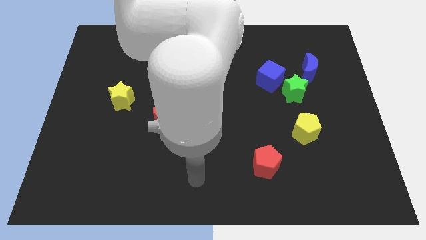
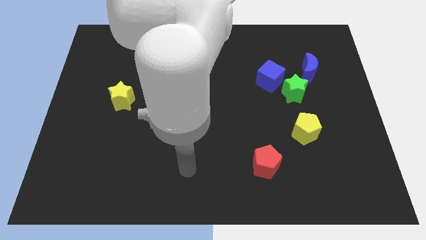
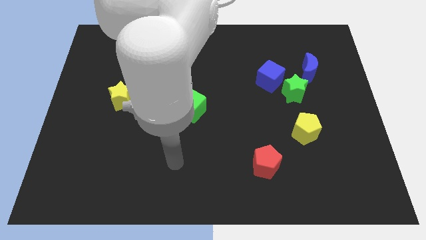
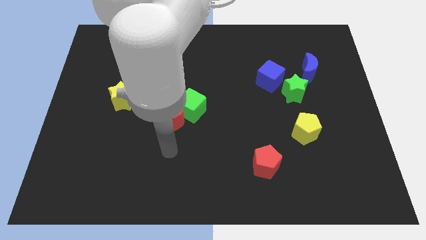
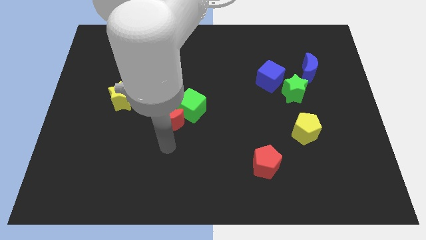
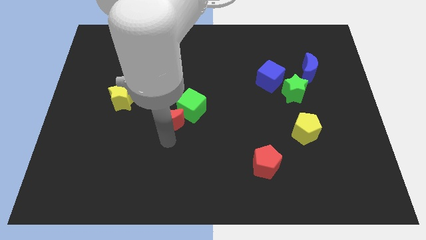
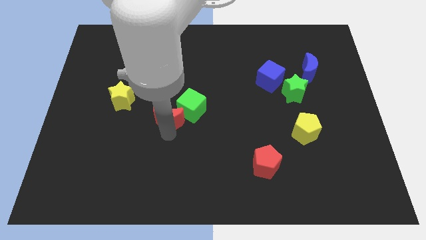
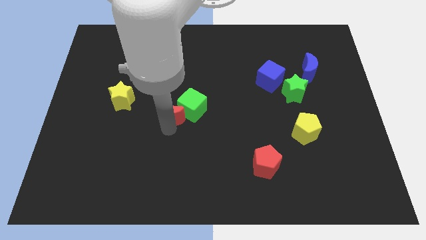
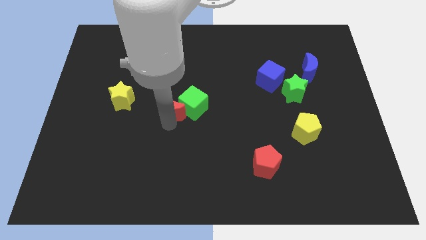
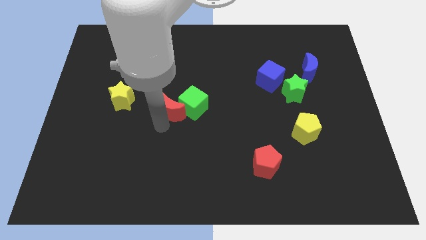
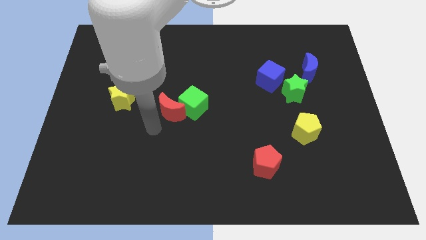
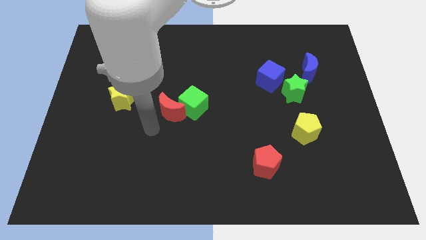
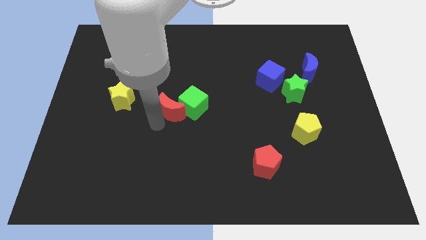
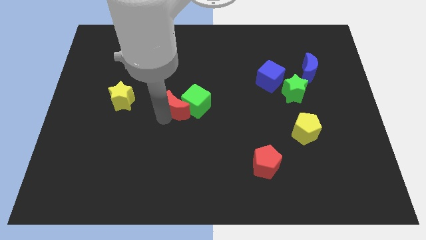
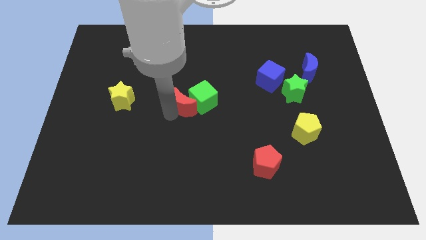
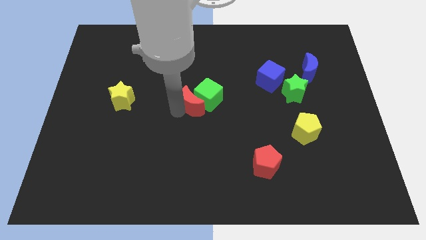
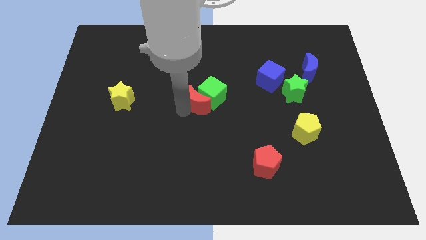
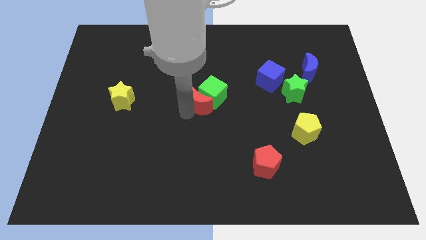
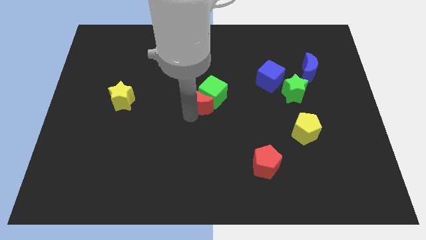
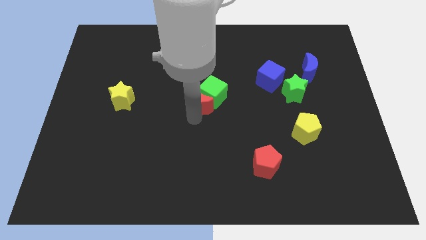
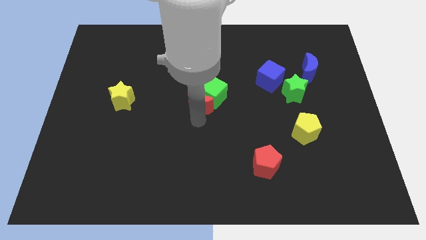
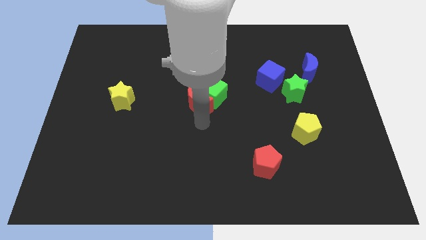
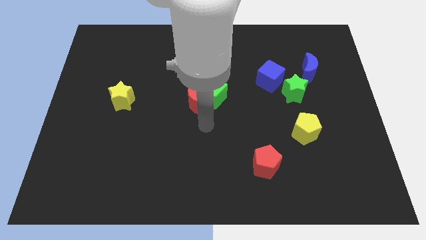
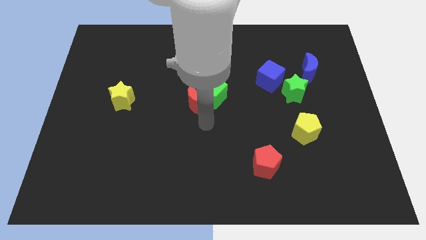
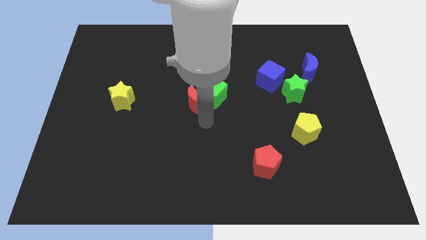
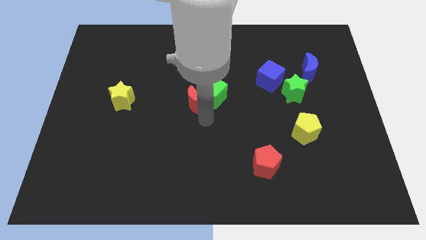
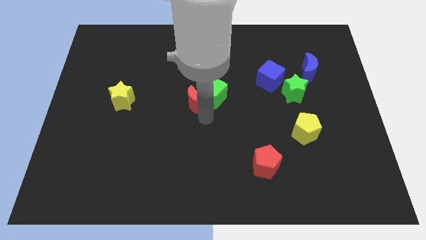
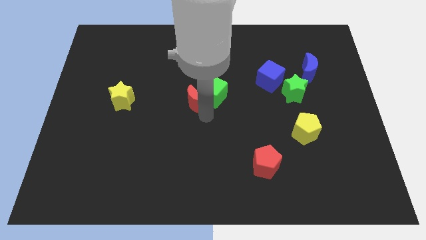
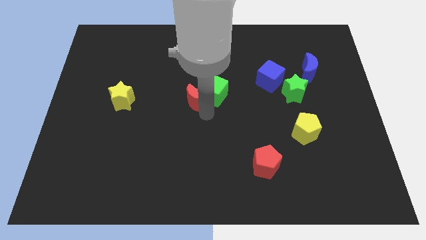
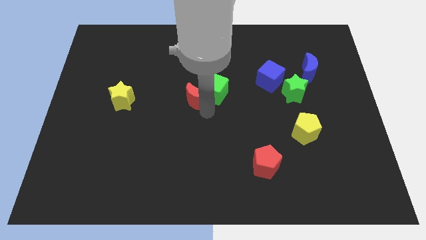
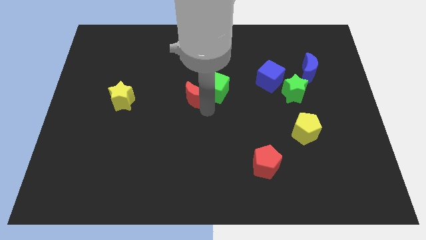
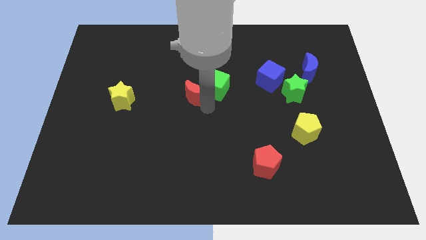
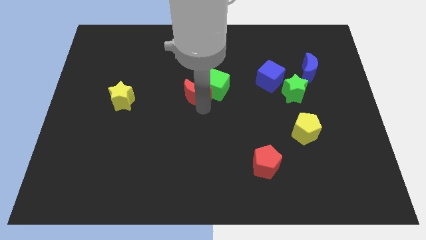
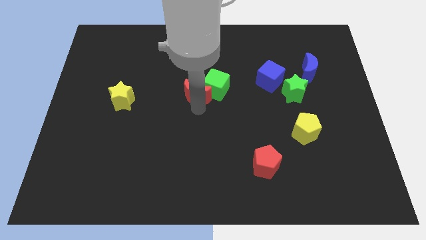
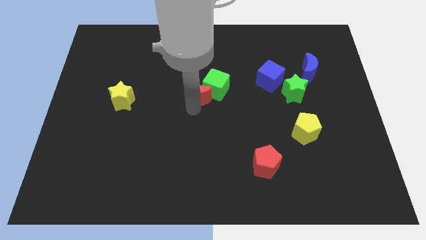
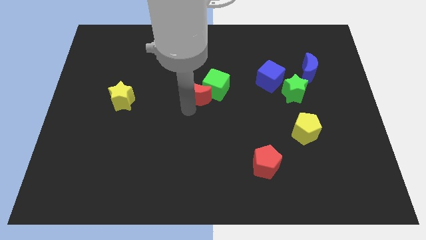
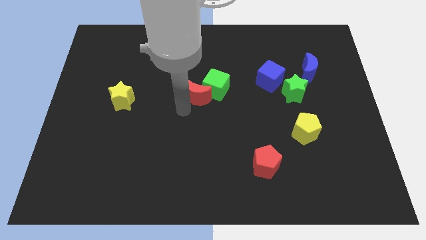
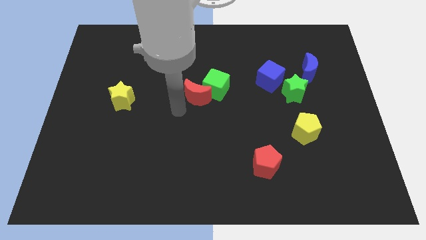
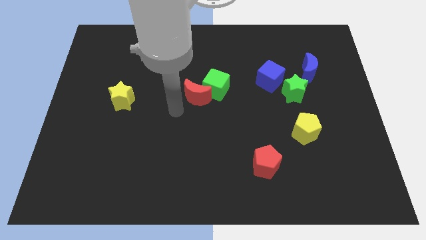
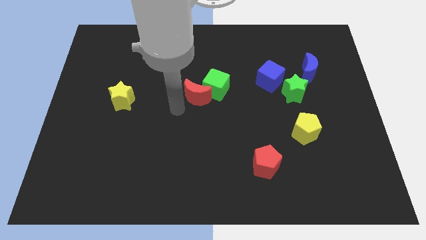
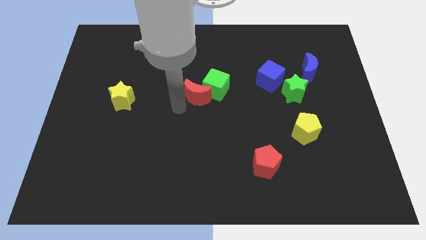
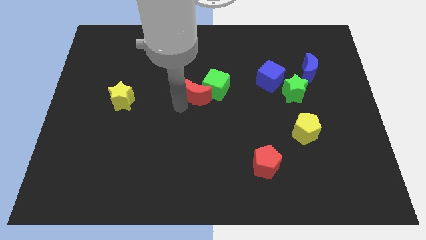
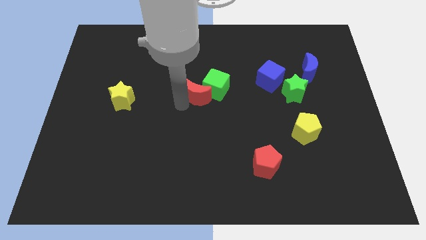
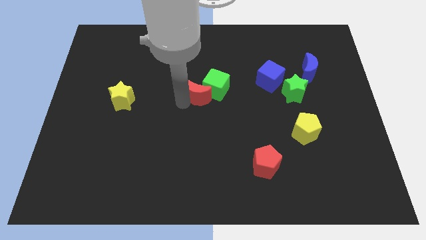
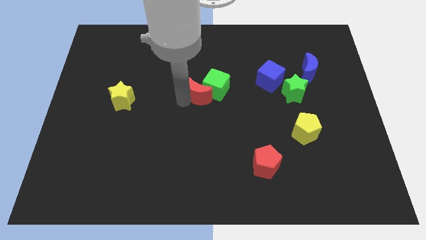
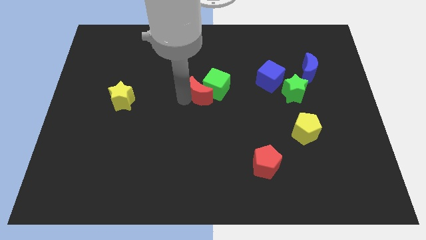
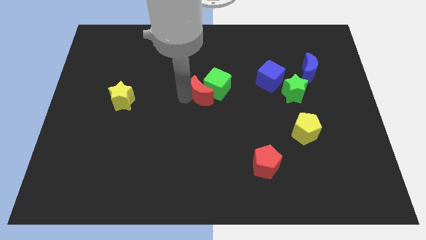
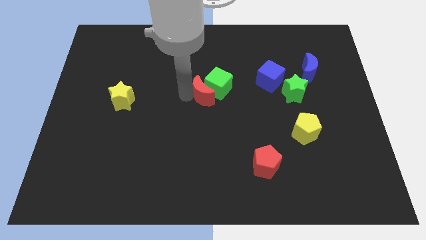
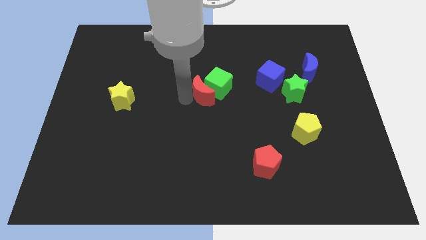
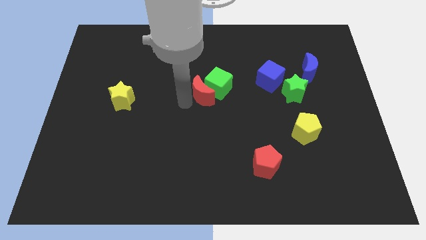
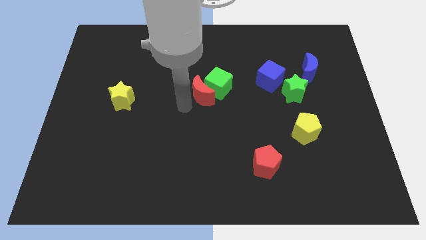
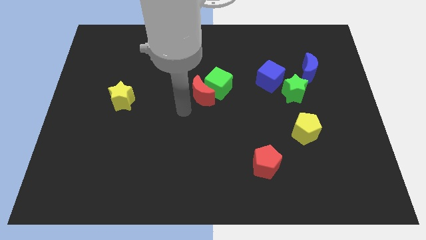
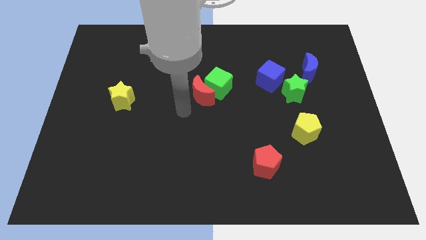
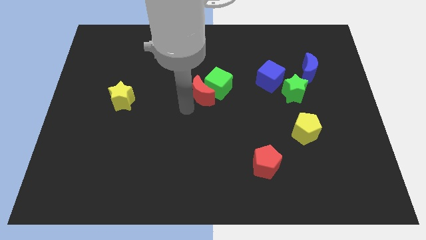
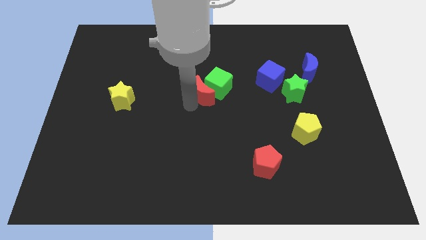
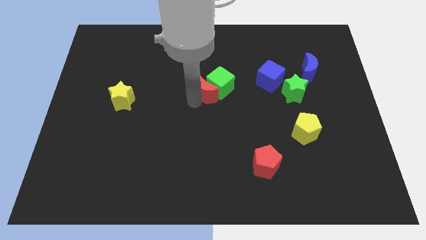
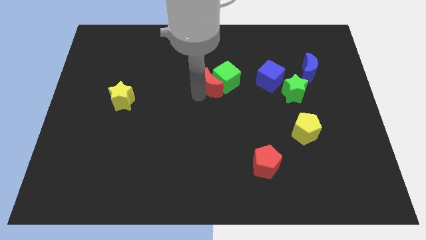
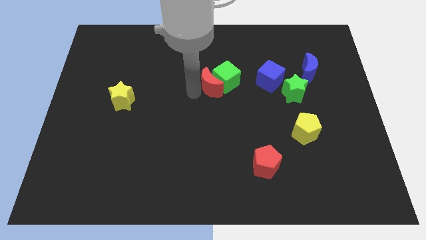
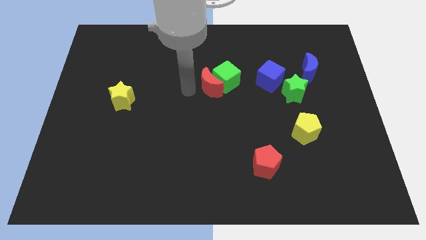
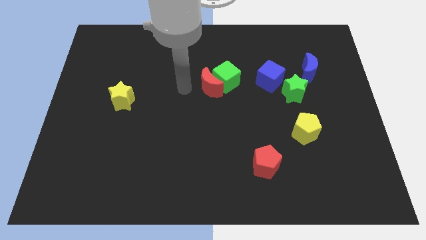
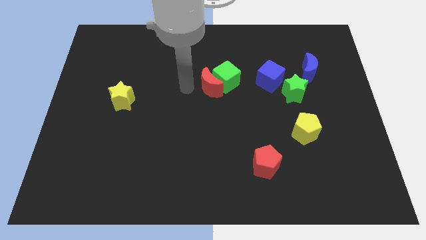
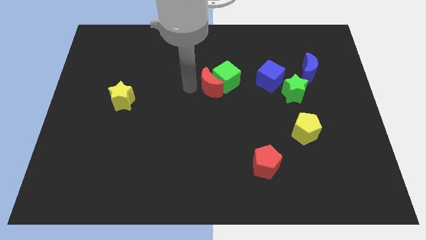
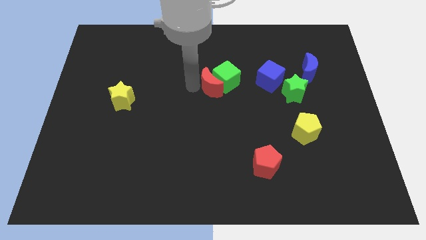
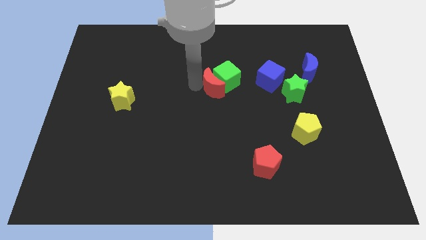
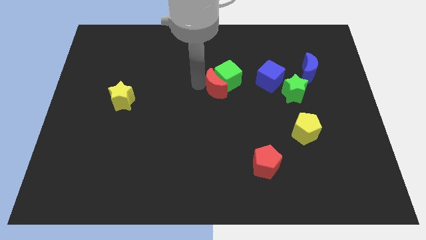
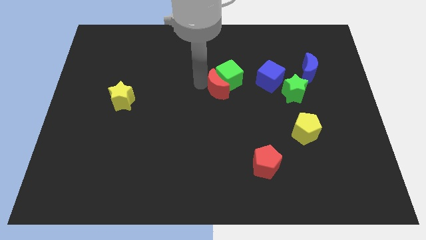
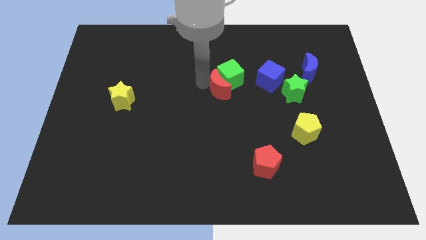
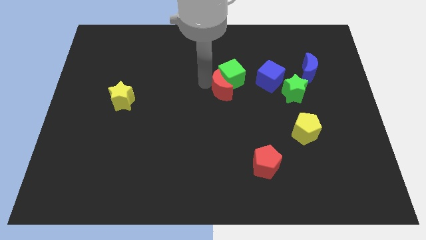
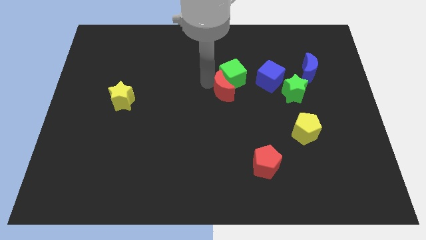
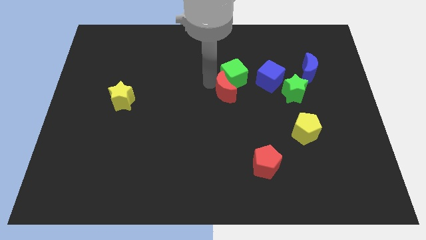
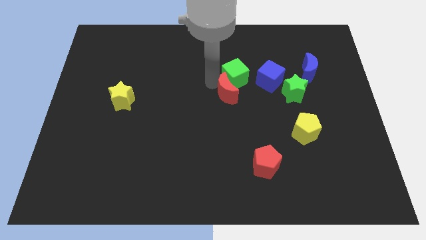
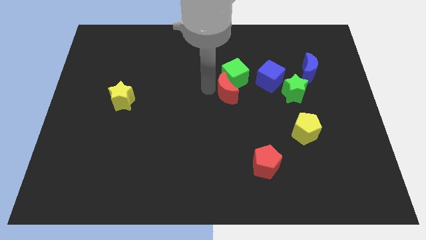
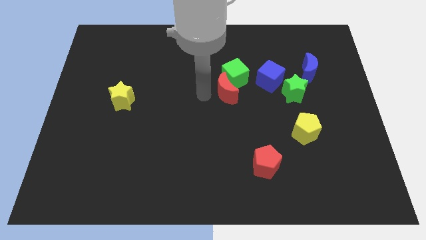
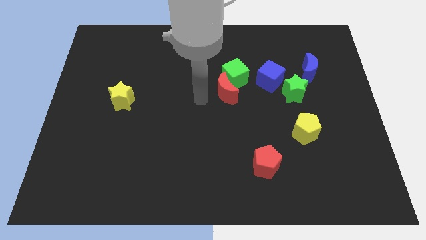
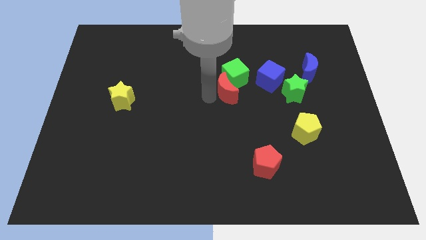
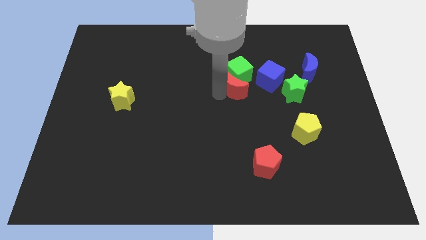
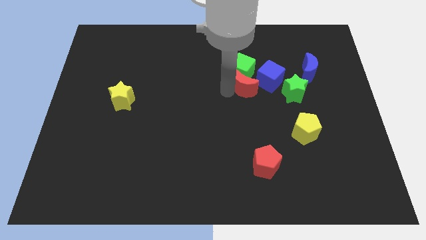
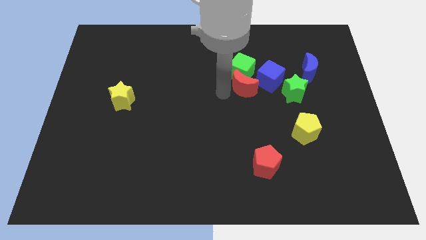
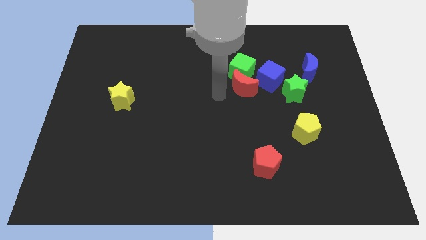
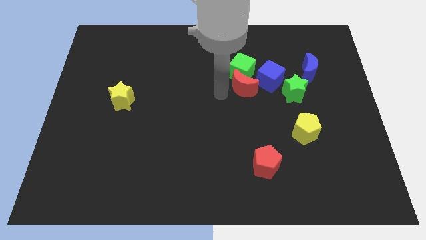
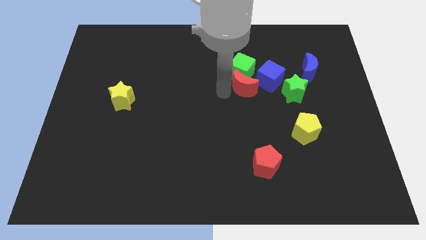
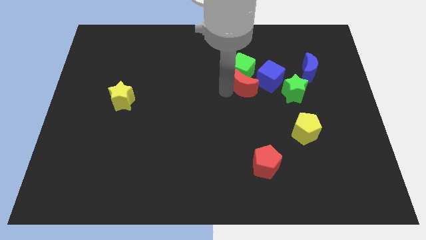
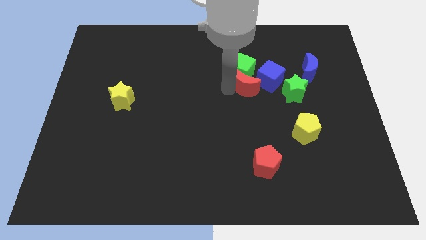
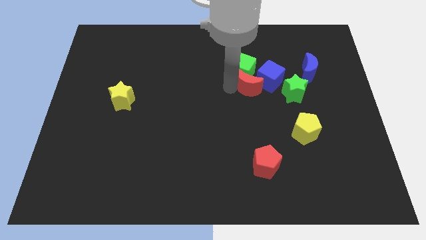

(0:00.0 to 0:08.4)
move the red moon next to the blue cube
